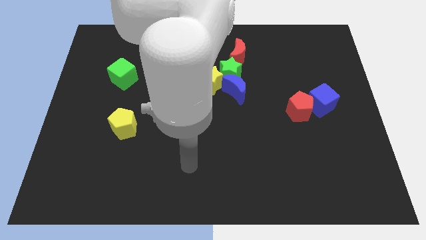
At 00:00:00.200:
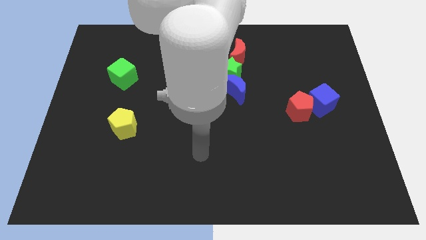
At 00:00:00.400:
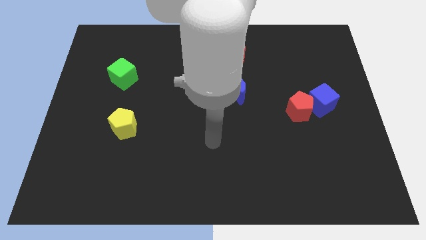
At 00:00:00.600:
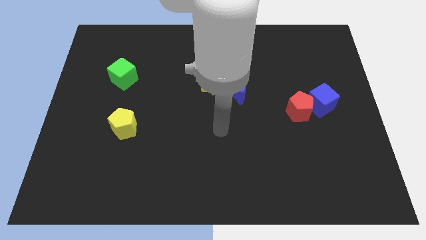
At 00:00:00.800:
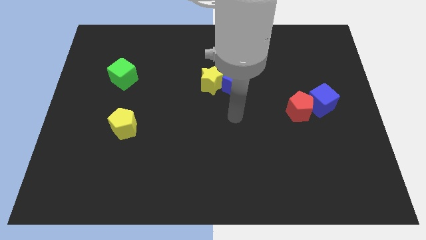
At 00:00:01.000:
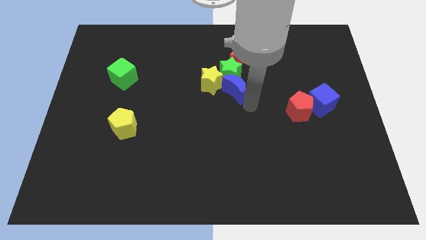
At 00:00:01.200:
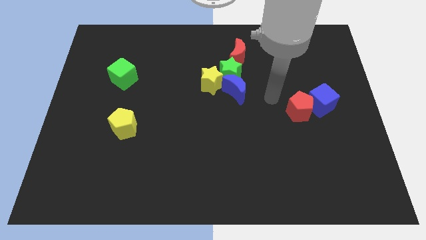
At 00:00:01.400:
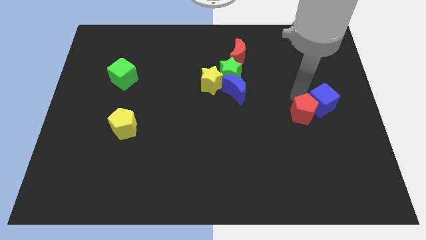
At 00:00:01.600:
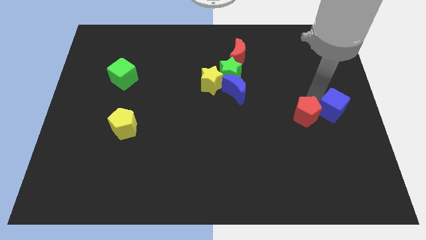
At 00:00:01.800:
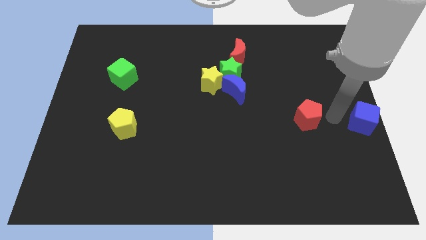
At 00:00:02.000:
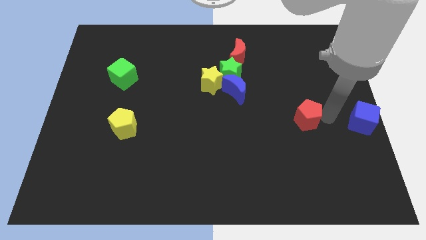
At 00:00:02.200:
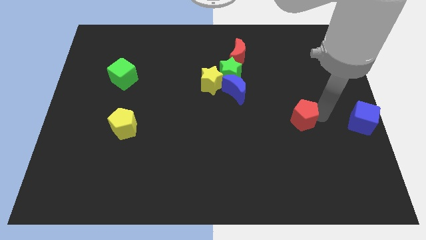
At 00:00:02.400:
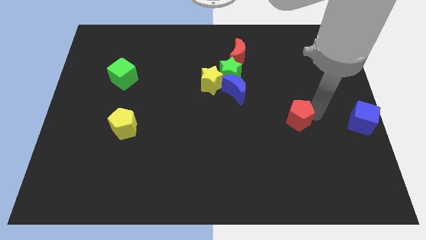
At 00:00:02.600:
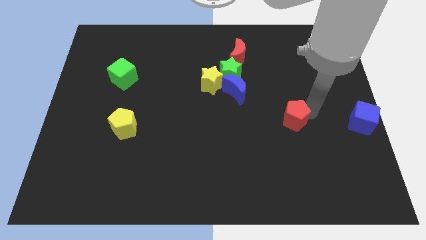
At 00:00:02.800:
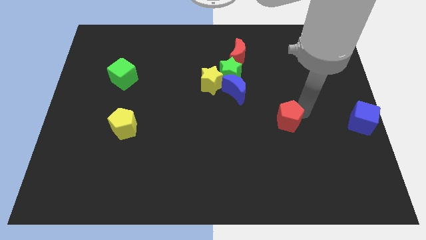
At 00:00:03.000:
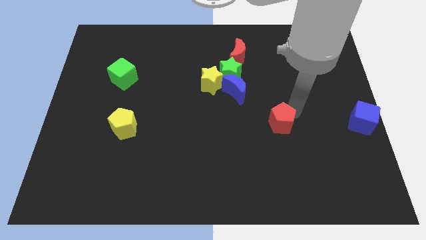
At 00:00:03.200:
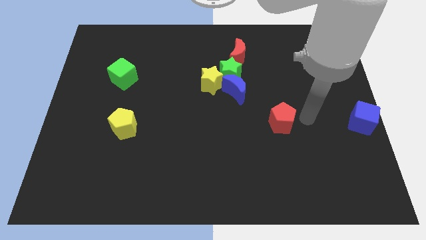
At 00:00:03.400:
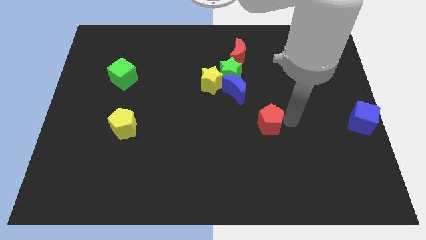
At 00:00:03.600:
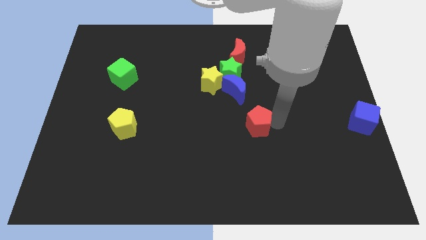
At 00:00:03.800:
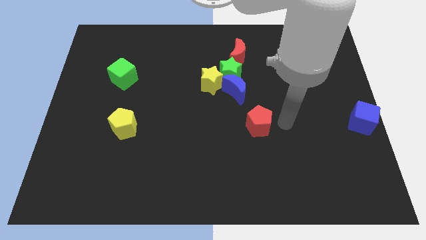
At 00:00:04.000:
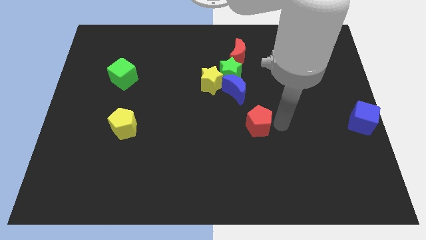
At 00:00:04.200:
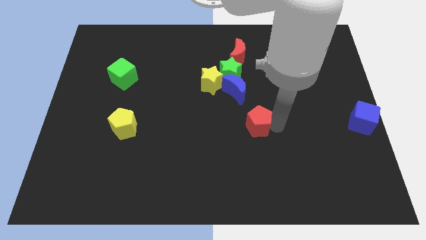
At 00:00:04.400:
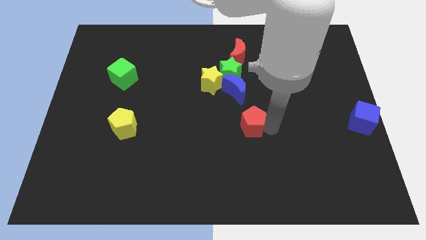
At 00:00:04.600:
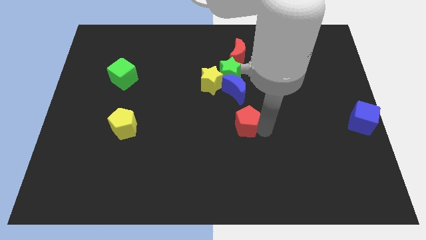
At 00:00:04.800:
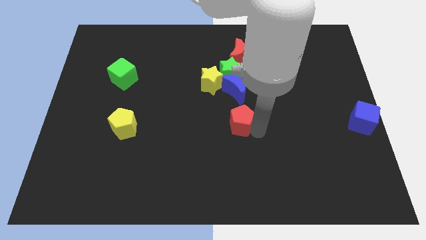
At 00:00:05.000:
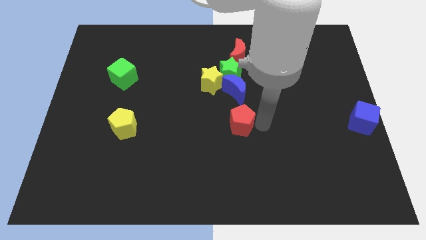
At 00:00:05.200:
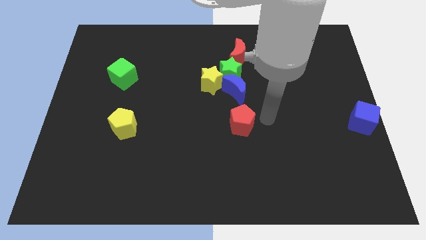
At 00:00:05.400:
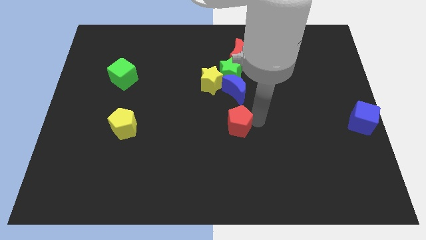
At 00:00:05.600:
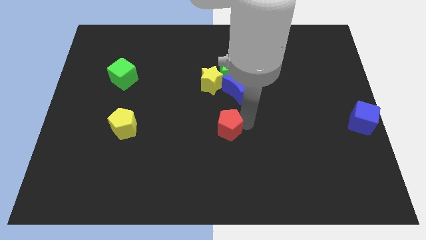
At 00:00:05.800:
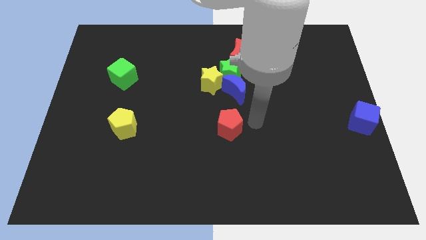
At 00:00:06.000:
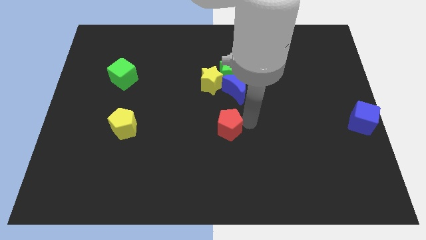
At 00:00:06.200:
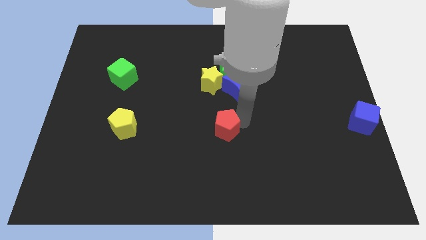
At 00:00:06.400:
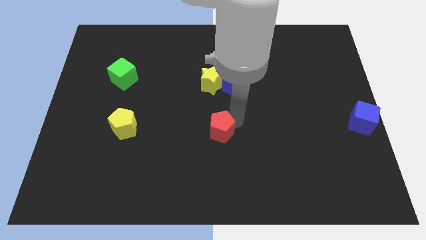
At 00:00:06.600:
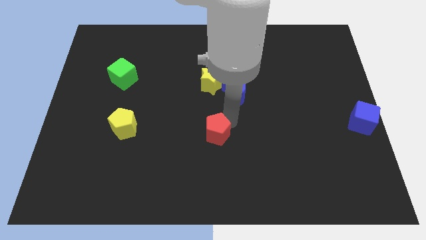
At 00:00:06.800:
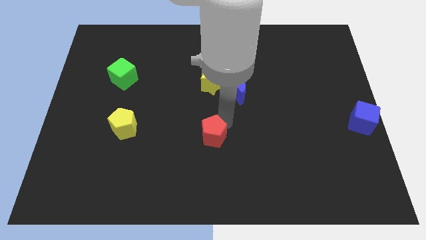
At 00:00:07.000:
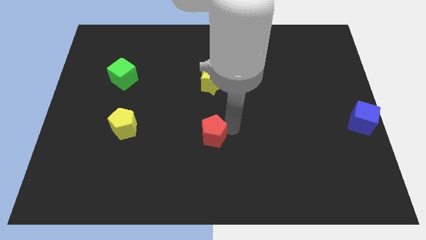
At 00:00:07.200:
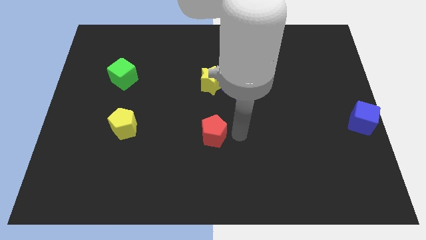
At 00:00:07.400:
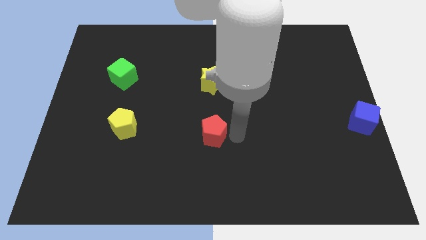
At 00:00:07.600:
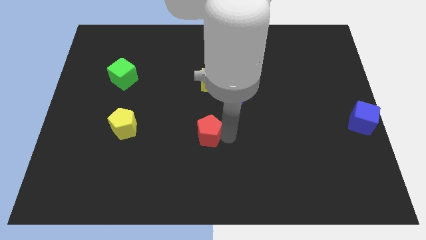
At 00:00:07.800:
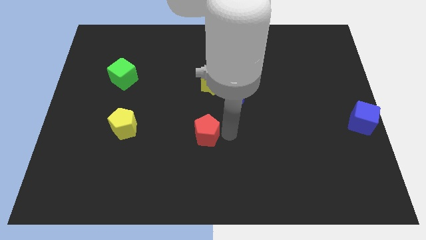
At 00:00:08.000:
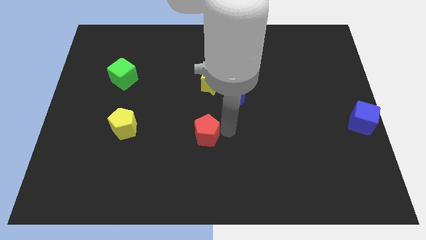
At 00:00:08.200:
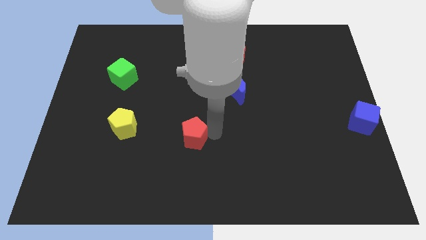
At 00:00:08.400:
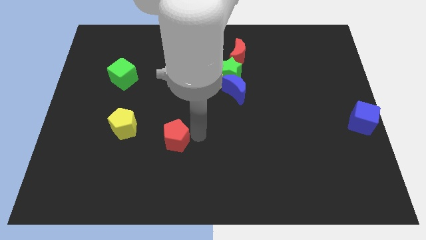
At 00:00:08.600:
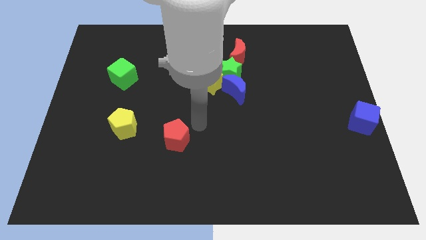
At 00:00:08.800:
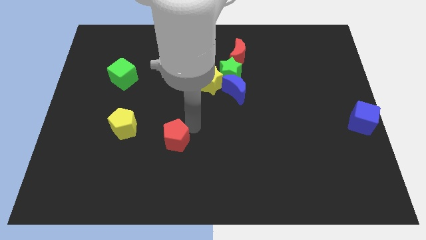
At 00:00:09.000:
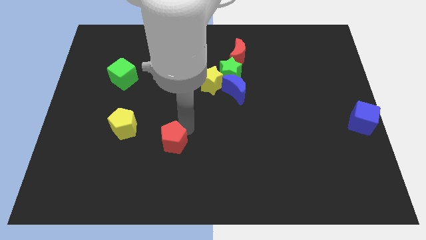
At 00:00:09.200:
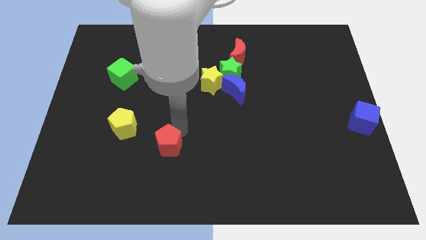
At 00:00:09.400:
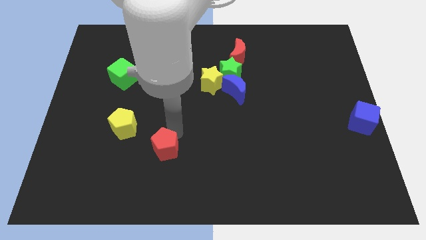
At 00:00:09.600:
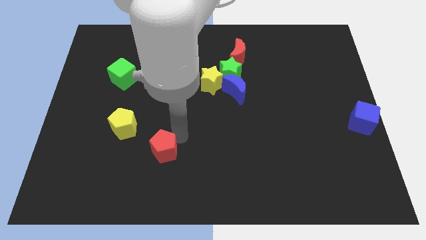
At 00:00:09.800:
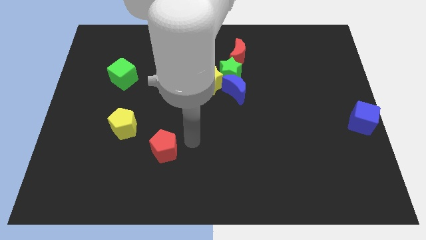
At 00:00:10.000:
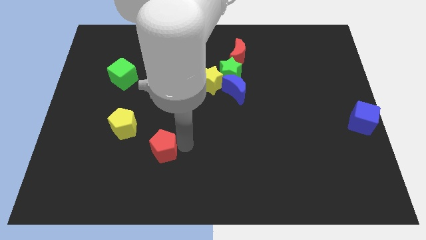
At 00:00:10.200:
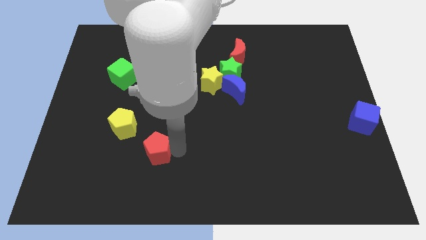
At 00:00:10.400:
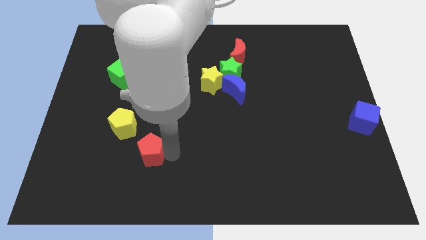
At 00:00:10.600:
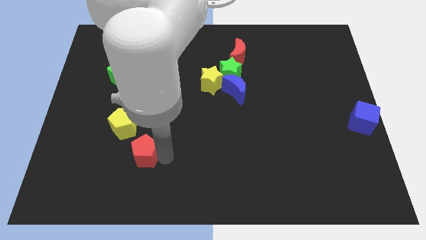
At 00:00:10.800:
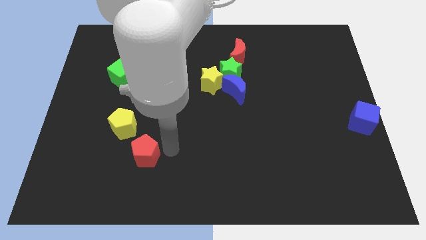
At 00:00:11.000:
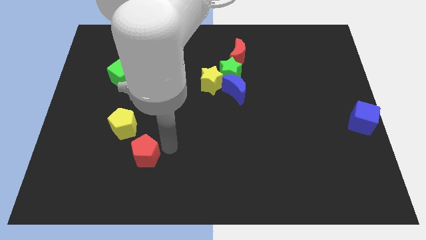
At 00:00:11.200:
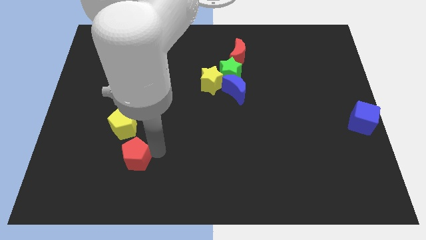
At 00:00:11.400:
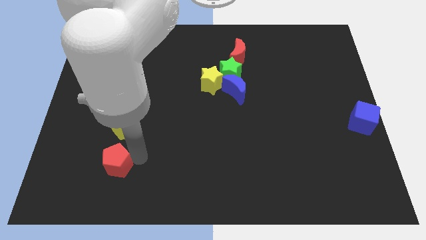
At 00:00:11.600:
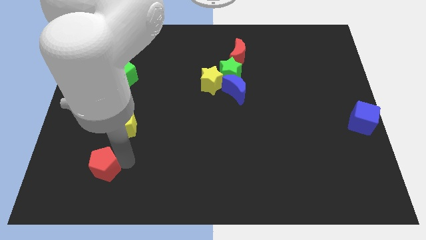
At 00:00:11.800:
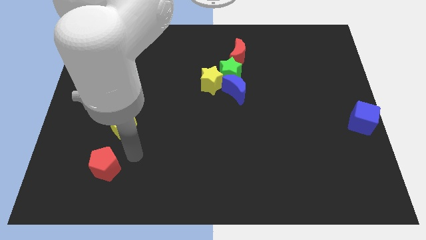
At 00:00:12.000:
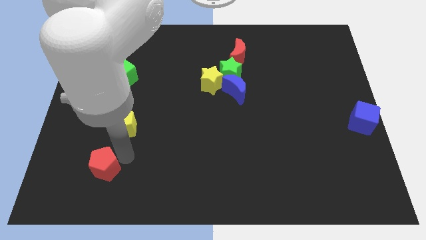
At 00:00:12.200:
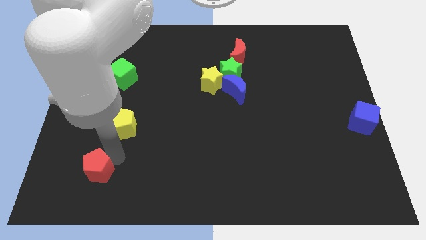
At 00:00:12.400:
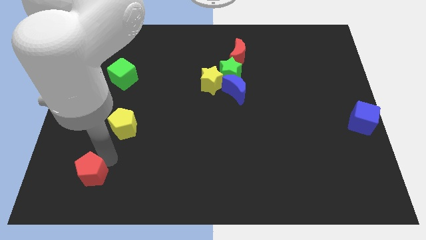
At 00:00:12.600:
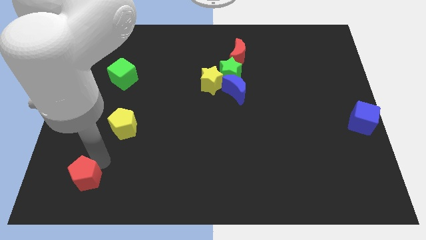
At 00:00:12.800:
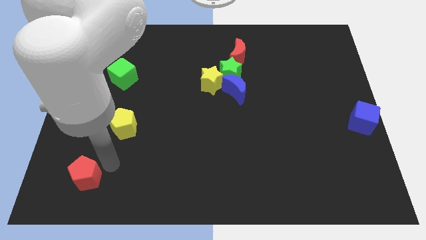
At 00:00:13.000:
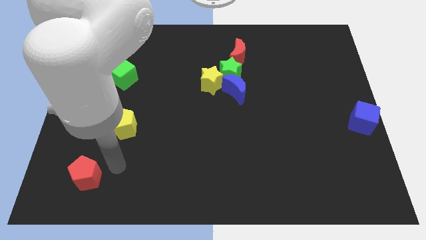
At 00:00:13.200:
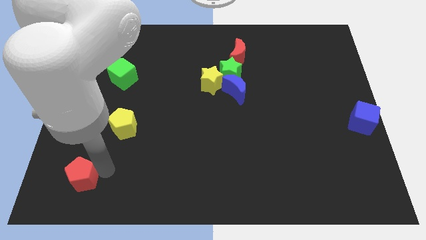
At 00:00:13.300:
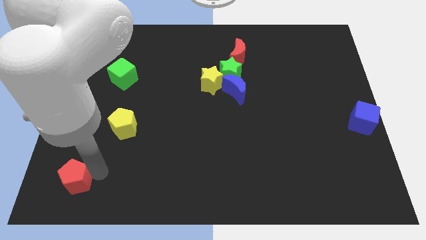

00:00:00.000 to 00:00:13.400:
push the red pentagon to the bottom left of the board
